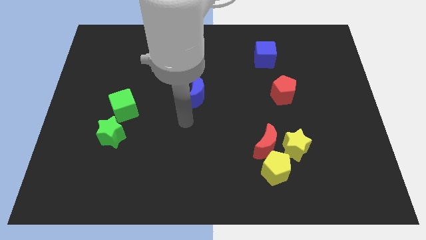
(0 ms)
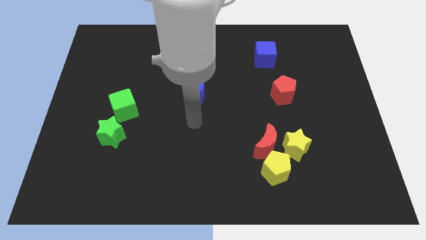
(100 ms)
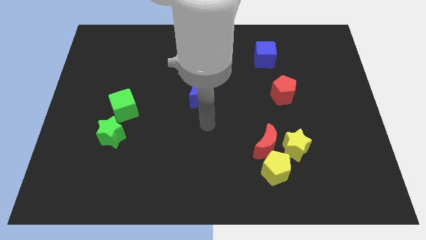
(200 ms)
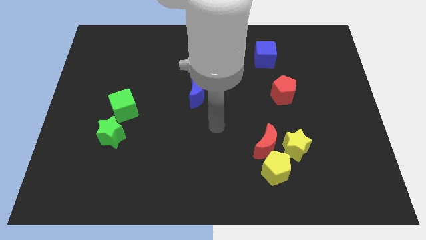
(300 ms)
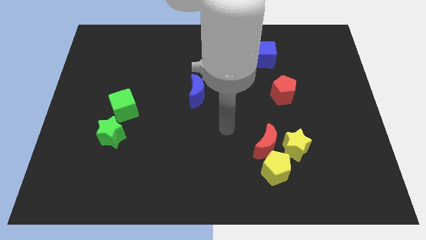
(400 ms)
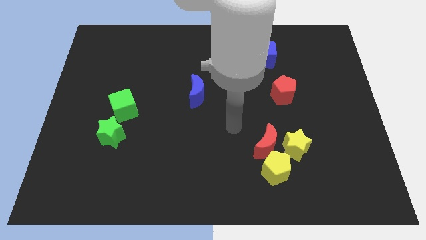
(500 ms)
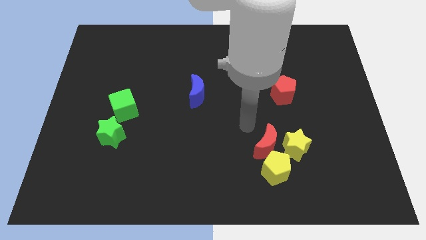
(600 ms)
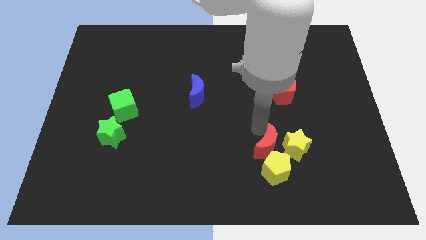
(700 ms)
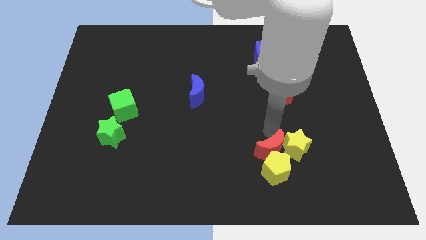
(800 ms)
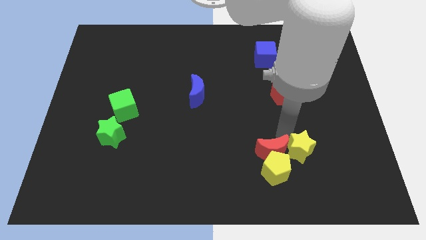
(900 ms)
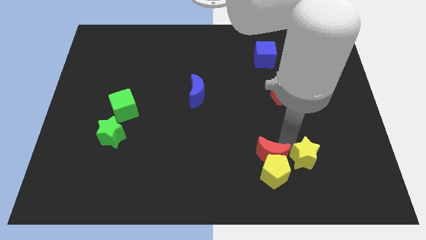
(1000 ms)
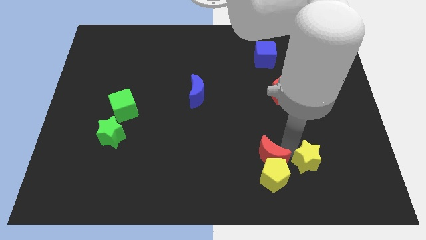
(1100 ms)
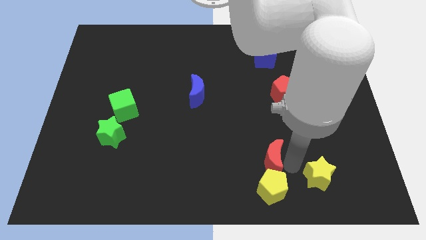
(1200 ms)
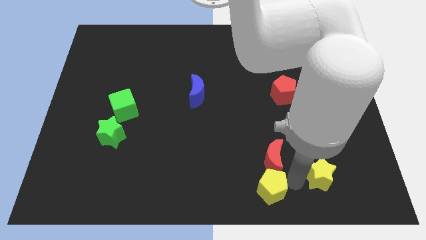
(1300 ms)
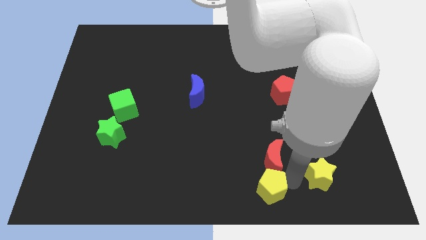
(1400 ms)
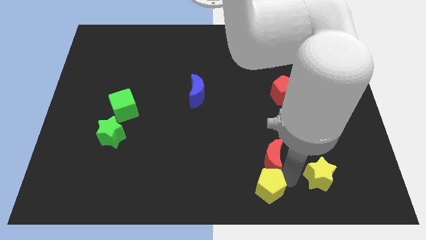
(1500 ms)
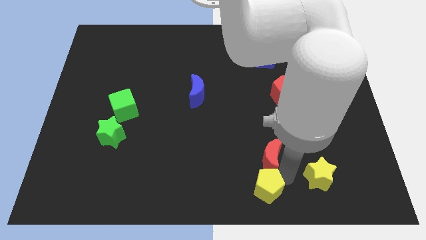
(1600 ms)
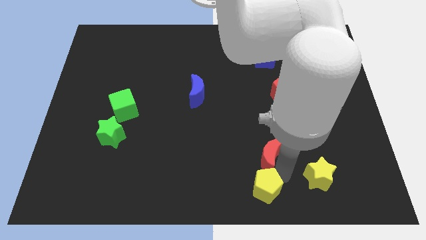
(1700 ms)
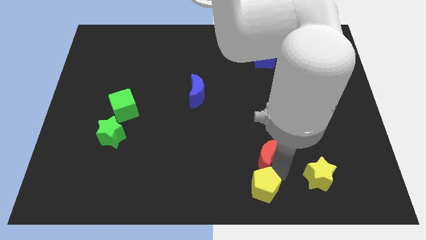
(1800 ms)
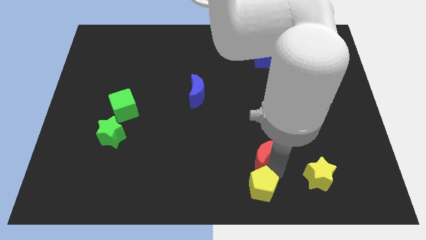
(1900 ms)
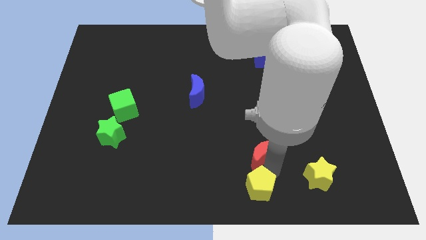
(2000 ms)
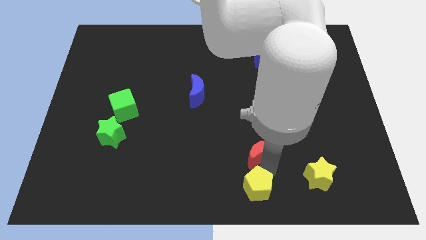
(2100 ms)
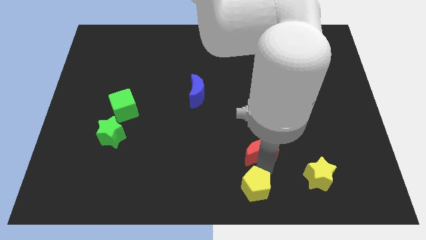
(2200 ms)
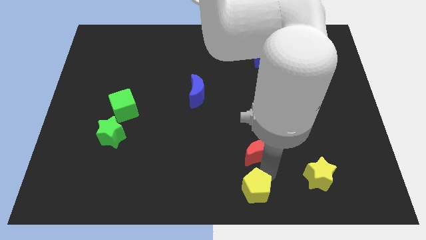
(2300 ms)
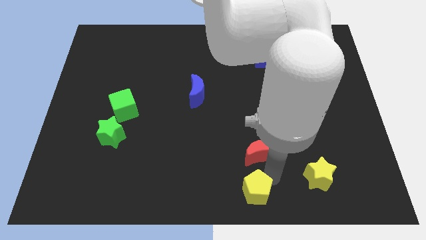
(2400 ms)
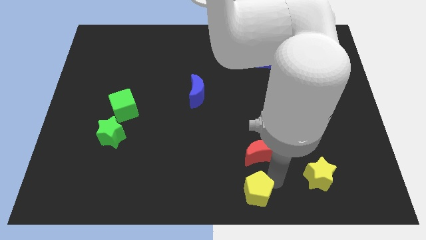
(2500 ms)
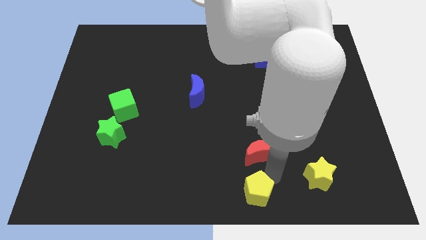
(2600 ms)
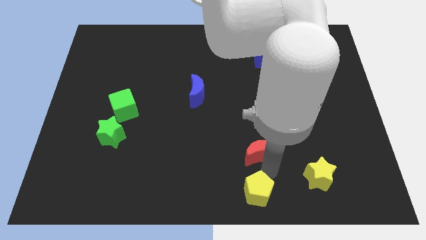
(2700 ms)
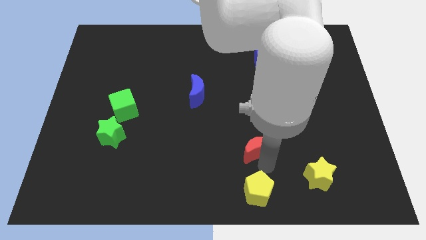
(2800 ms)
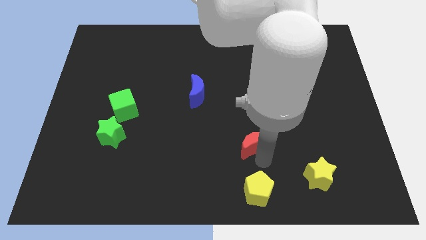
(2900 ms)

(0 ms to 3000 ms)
move the red moon away from the yellow star and yellow pentagon

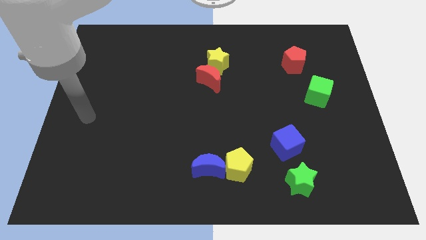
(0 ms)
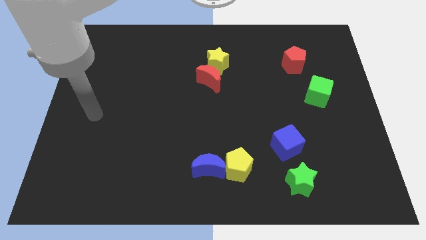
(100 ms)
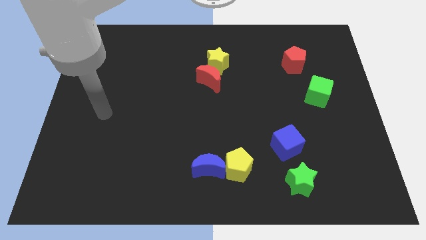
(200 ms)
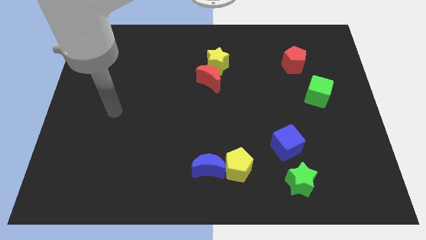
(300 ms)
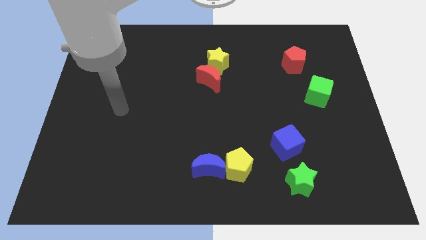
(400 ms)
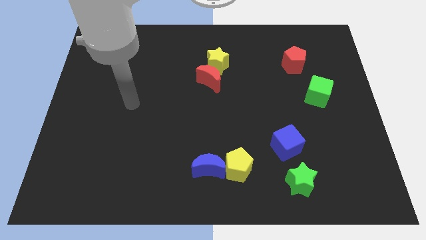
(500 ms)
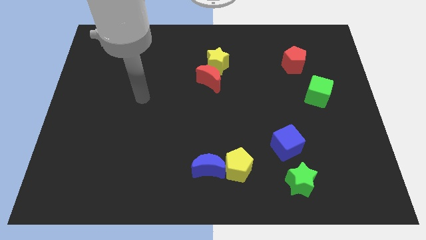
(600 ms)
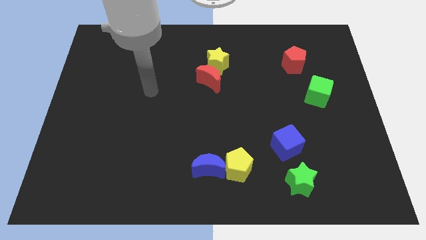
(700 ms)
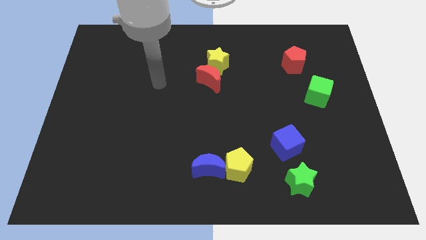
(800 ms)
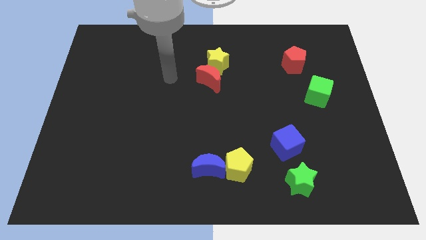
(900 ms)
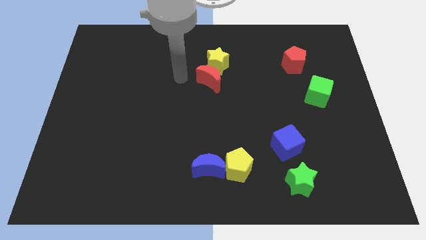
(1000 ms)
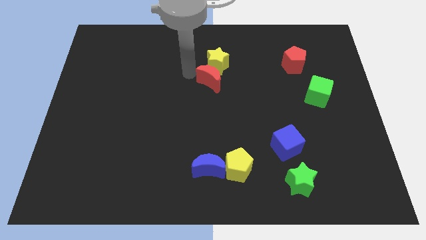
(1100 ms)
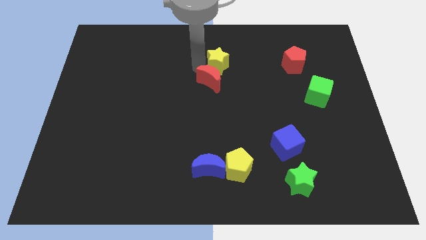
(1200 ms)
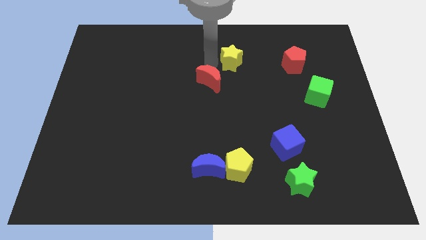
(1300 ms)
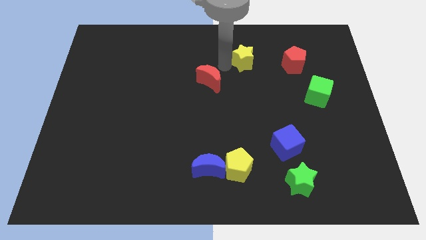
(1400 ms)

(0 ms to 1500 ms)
separate the red moon from the yellow star

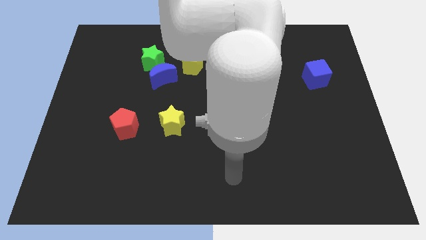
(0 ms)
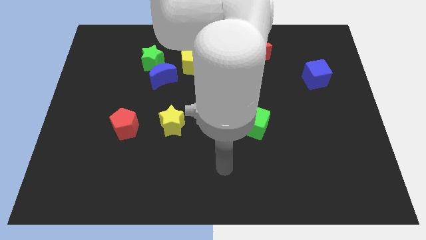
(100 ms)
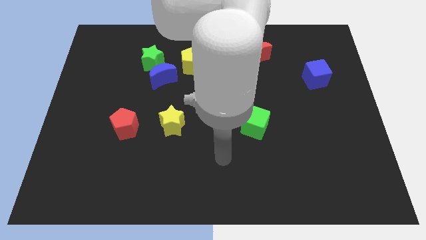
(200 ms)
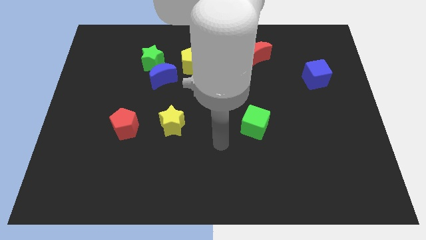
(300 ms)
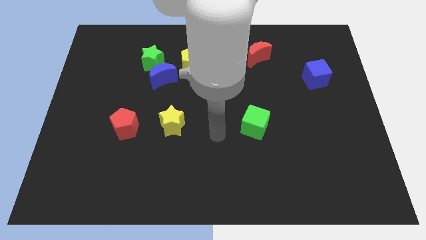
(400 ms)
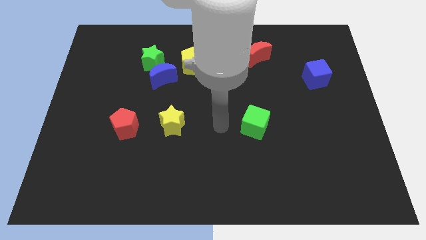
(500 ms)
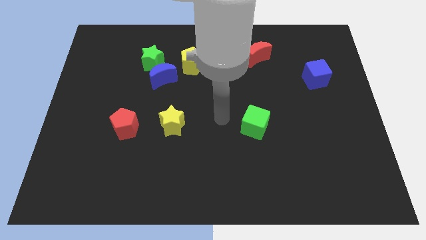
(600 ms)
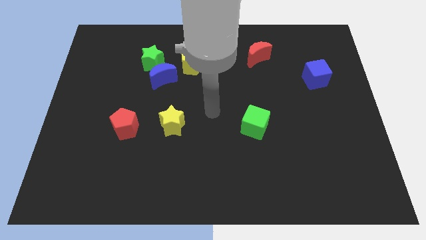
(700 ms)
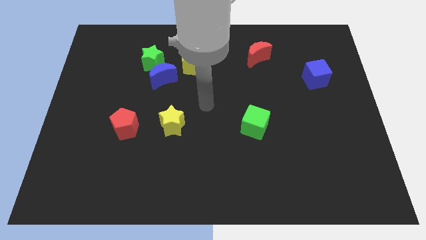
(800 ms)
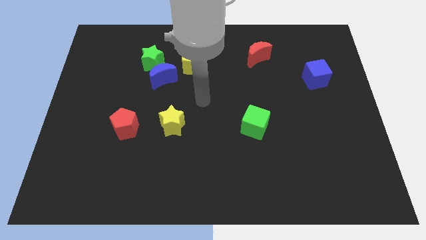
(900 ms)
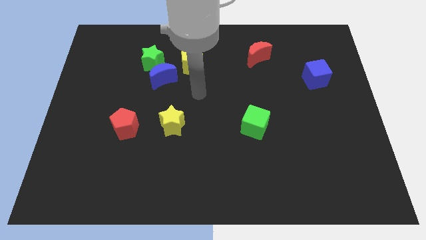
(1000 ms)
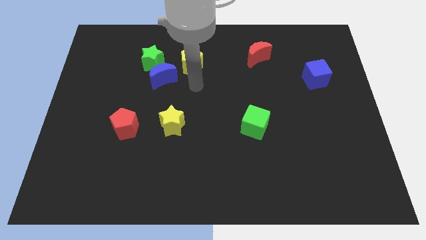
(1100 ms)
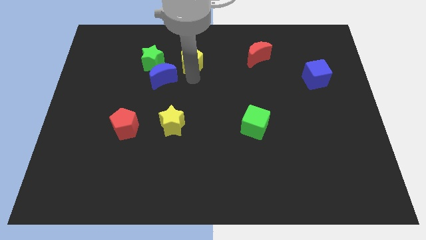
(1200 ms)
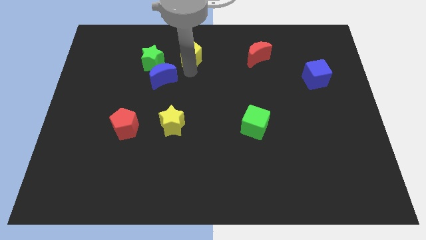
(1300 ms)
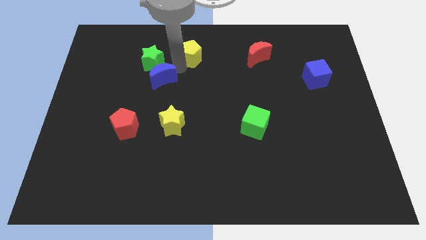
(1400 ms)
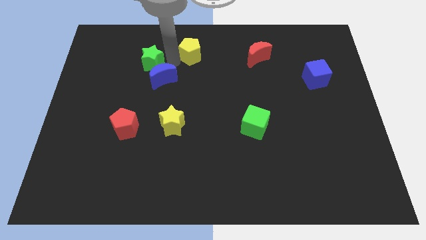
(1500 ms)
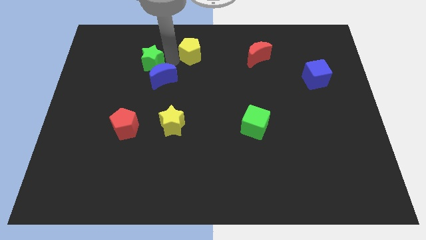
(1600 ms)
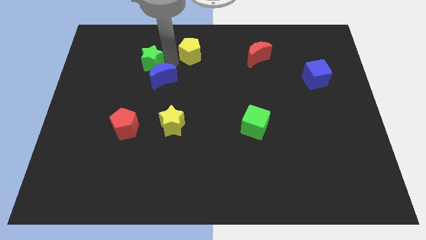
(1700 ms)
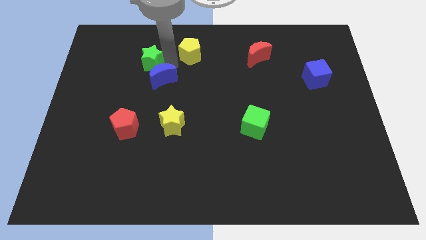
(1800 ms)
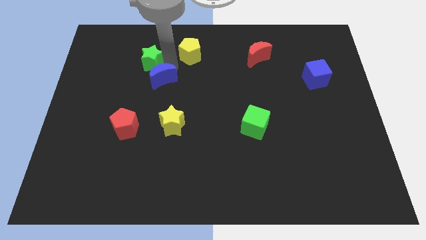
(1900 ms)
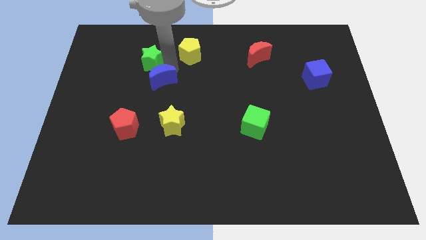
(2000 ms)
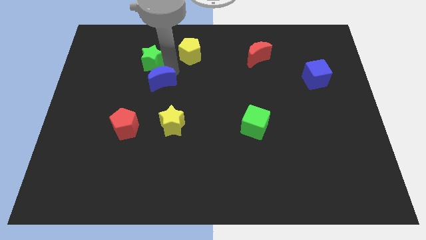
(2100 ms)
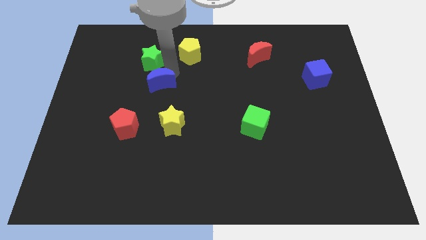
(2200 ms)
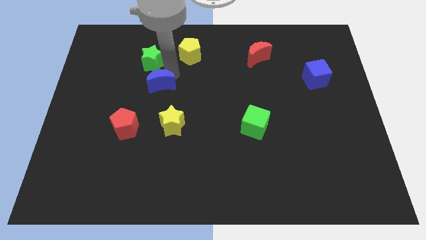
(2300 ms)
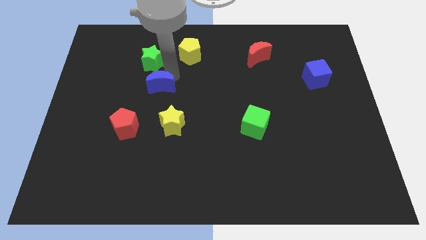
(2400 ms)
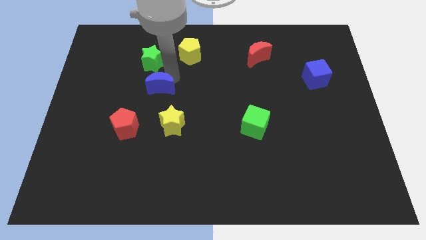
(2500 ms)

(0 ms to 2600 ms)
move the blue moon away from the green star and yellow pentagon

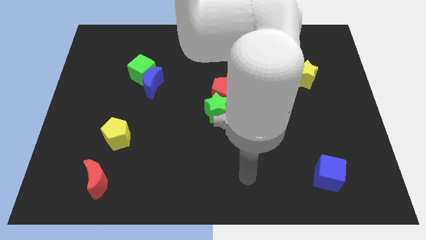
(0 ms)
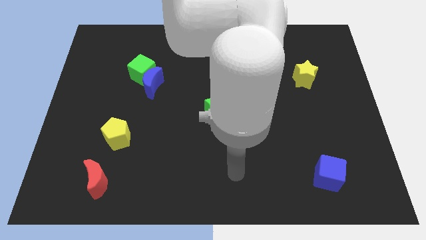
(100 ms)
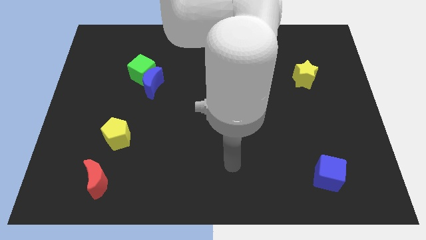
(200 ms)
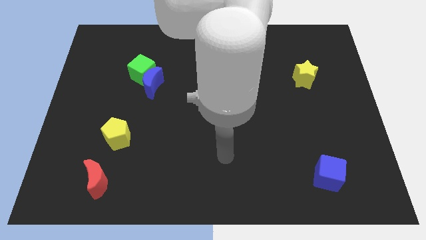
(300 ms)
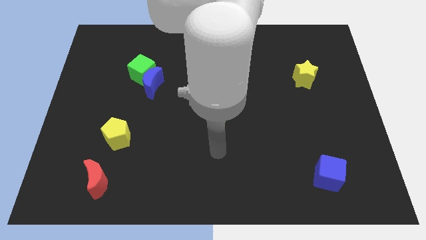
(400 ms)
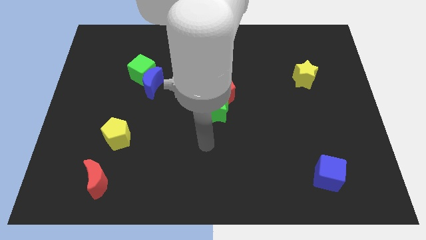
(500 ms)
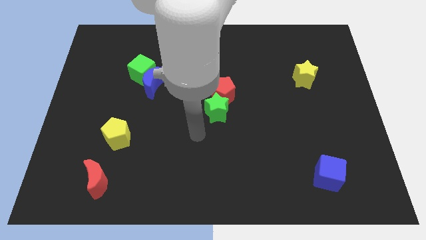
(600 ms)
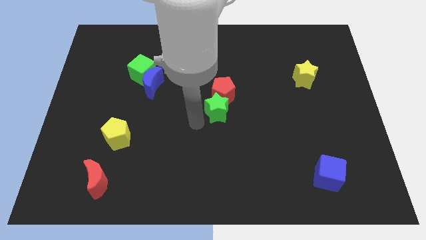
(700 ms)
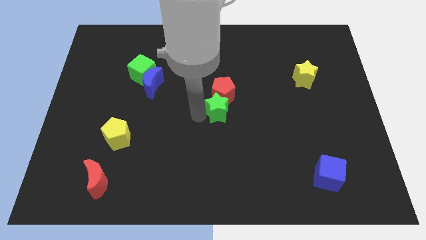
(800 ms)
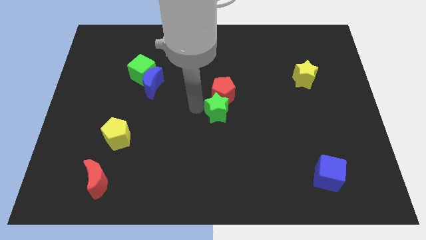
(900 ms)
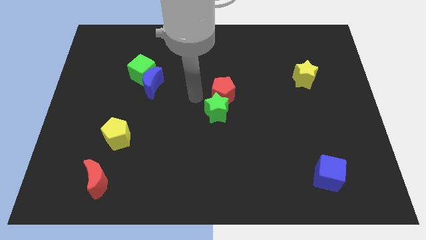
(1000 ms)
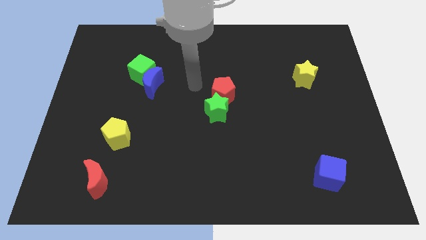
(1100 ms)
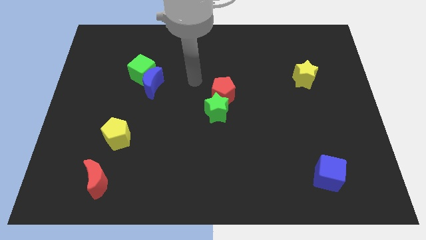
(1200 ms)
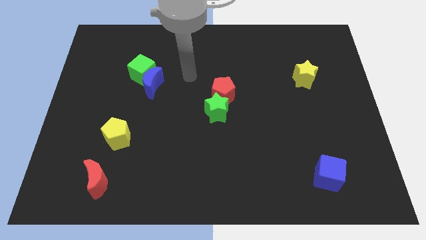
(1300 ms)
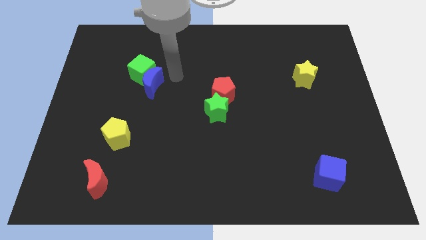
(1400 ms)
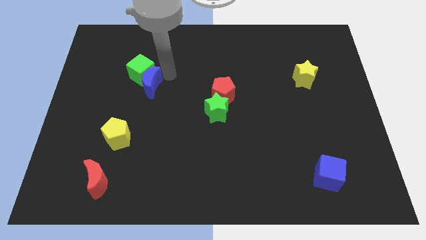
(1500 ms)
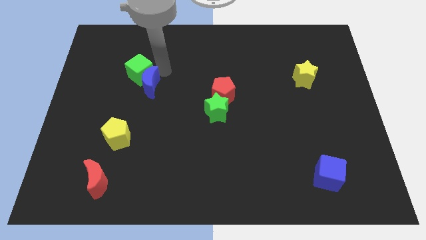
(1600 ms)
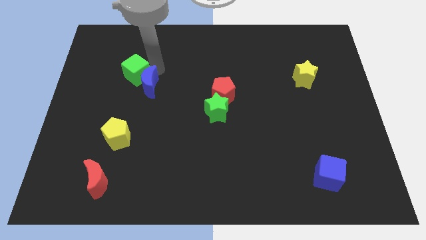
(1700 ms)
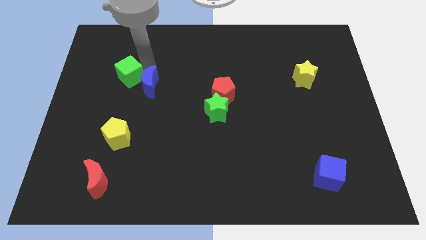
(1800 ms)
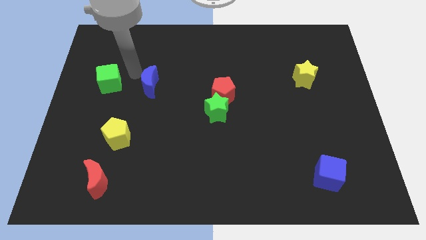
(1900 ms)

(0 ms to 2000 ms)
separate the blue moon from the green cube

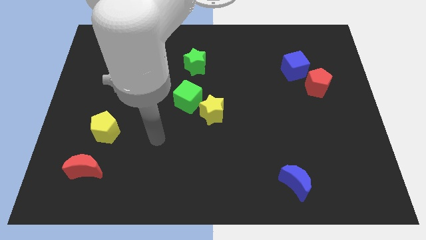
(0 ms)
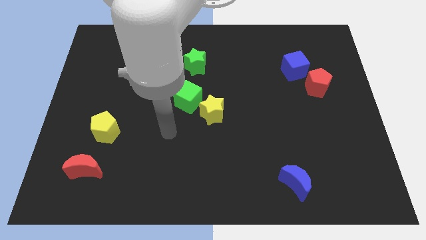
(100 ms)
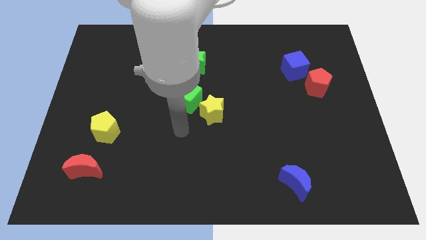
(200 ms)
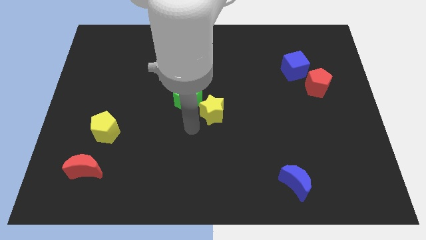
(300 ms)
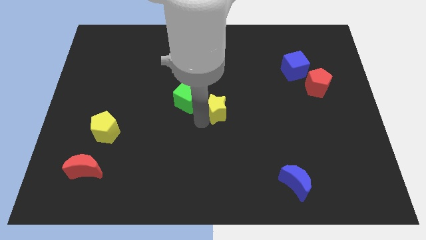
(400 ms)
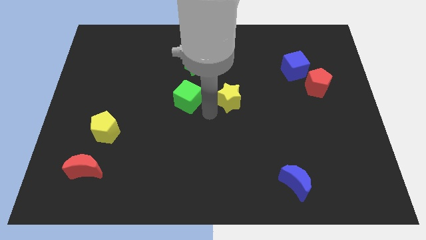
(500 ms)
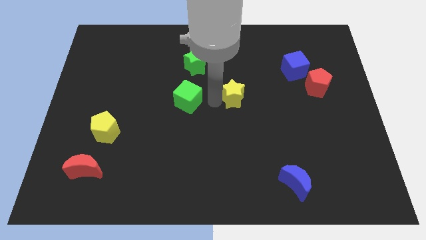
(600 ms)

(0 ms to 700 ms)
move the green cube away from the yellow star
